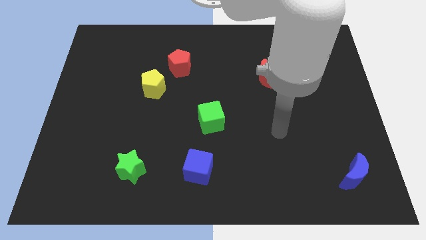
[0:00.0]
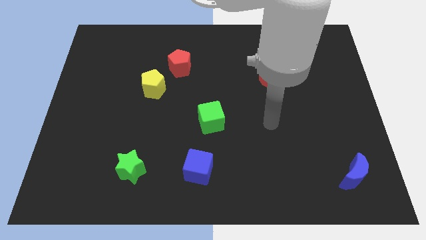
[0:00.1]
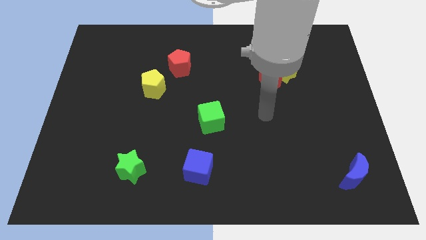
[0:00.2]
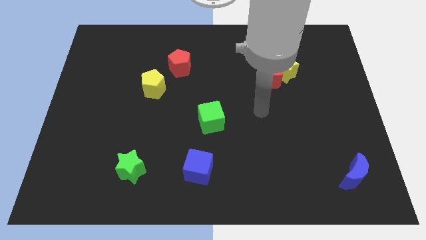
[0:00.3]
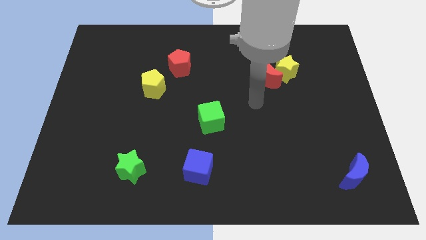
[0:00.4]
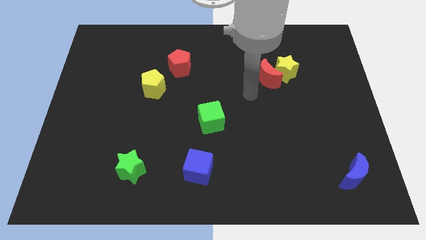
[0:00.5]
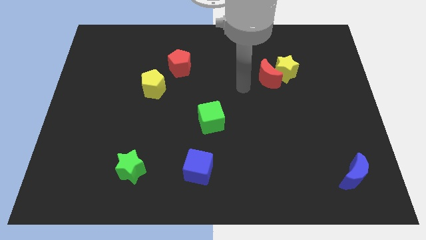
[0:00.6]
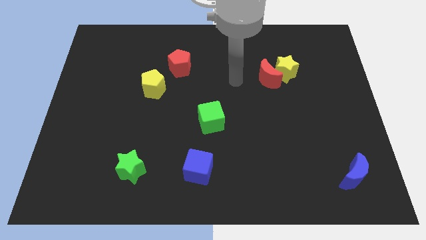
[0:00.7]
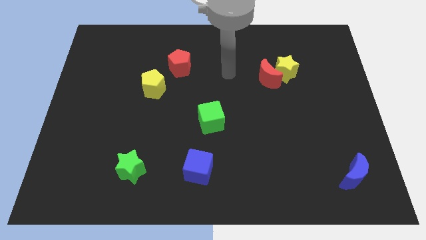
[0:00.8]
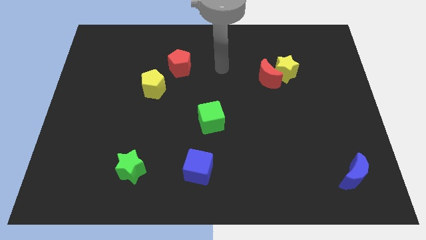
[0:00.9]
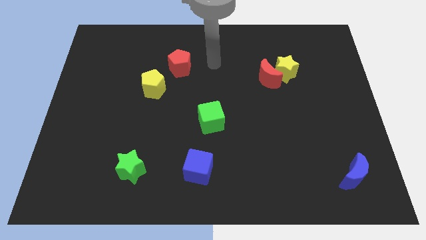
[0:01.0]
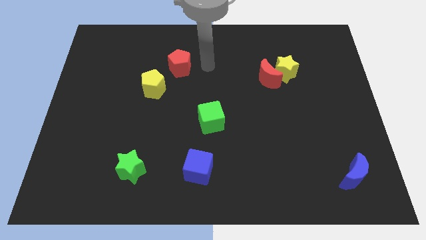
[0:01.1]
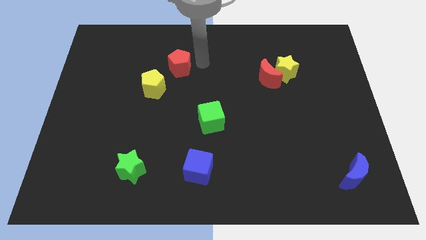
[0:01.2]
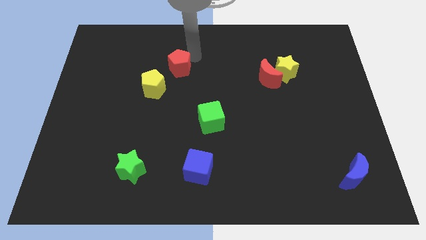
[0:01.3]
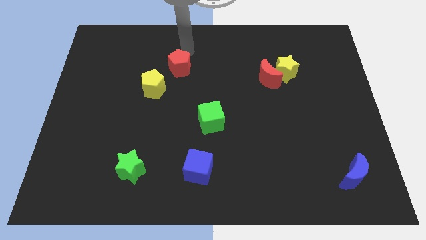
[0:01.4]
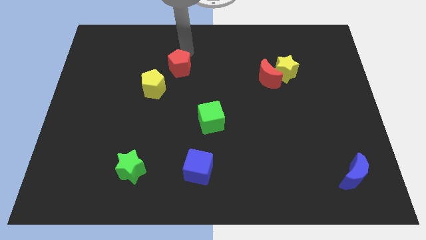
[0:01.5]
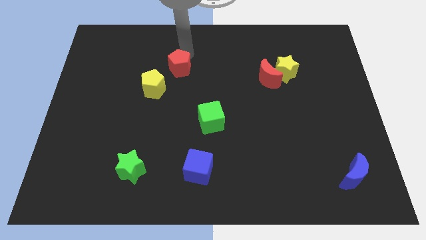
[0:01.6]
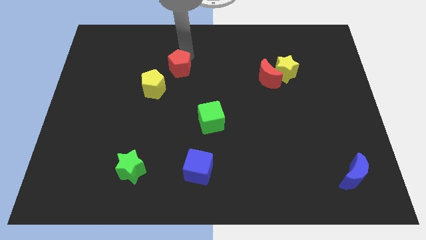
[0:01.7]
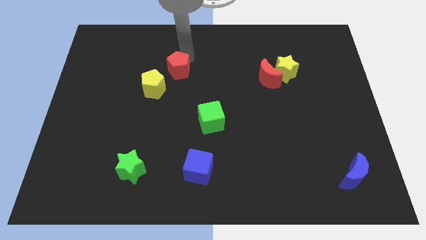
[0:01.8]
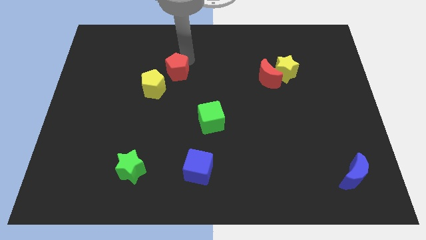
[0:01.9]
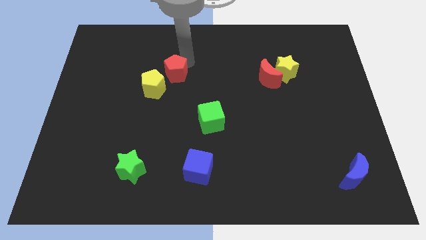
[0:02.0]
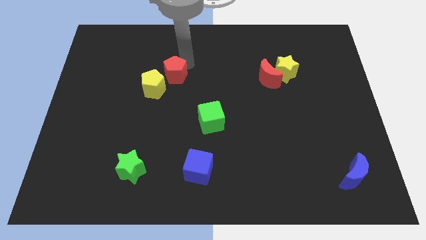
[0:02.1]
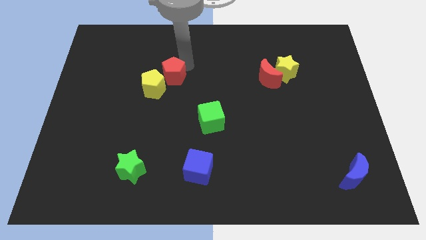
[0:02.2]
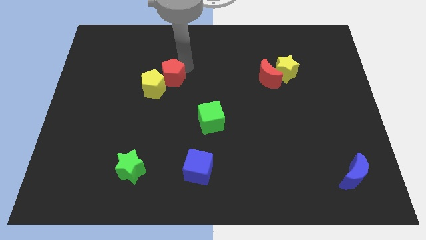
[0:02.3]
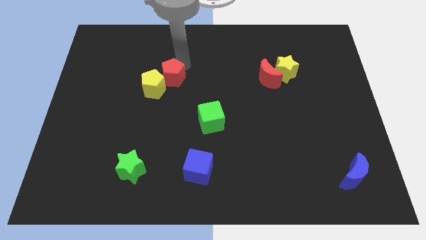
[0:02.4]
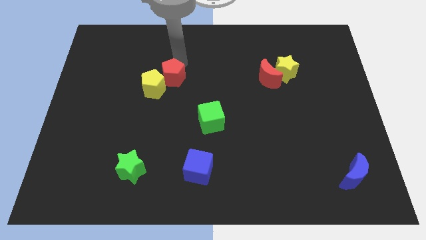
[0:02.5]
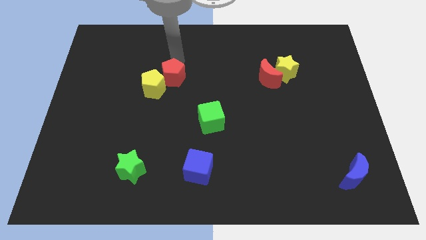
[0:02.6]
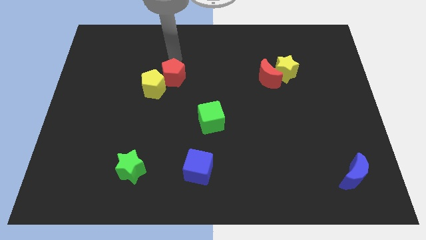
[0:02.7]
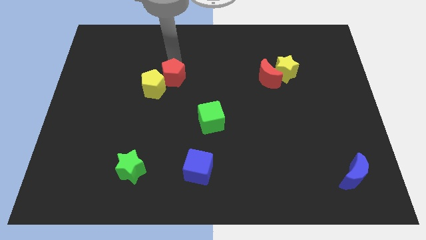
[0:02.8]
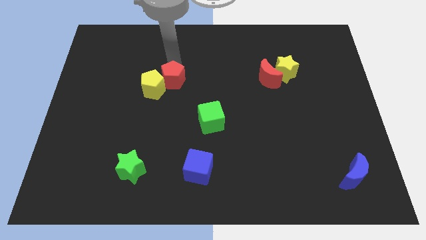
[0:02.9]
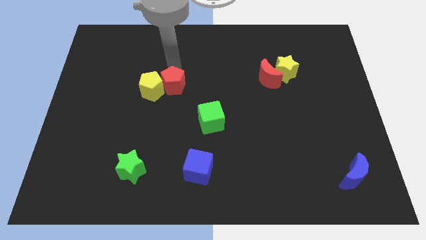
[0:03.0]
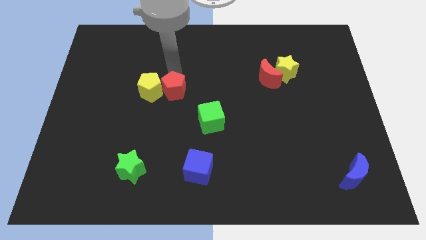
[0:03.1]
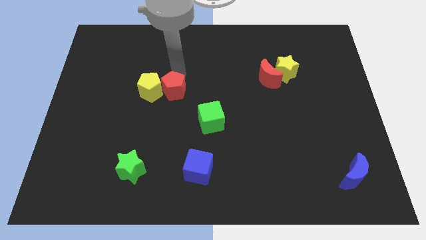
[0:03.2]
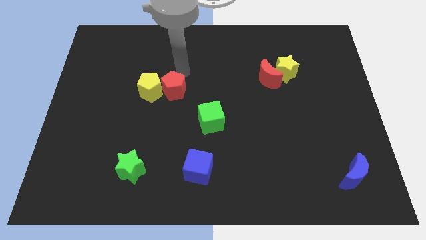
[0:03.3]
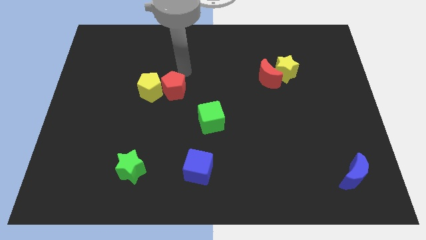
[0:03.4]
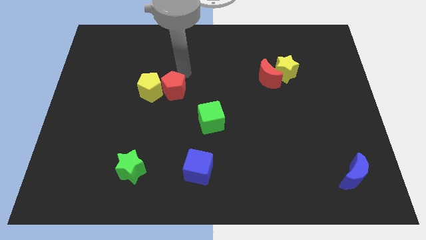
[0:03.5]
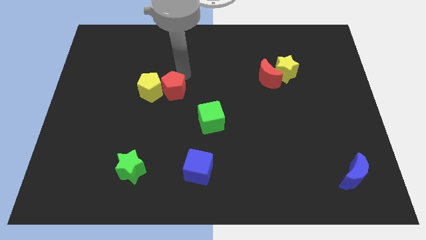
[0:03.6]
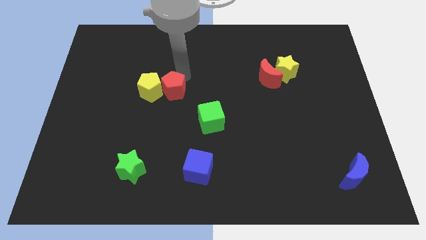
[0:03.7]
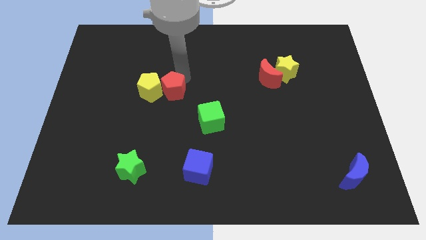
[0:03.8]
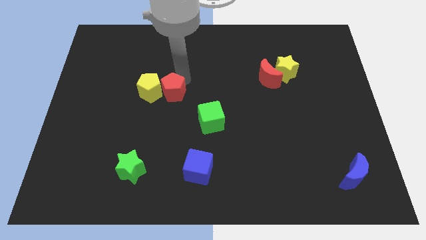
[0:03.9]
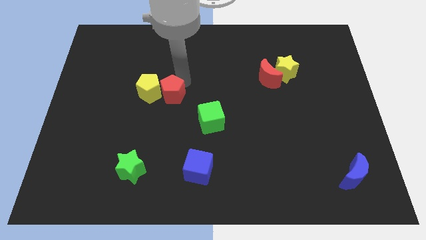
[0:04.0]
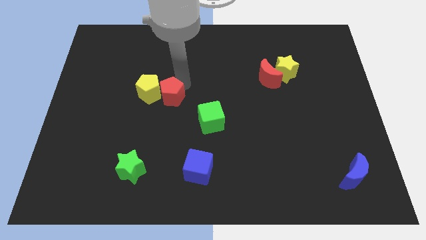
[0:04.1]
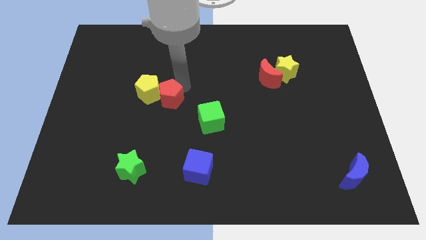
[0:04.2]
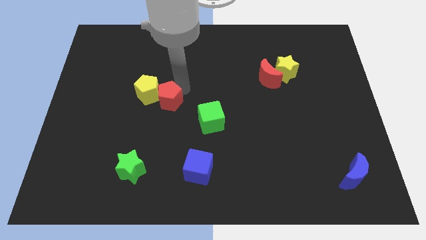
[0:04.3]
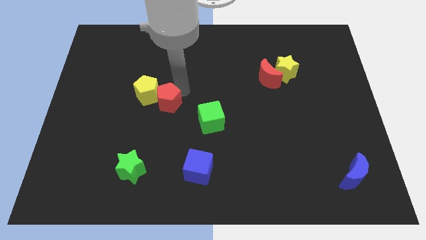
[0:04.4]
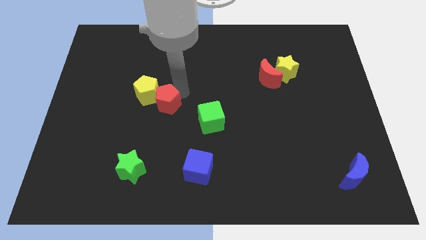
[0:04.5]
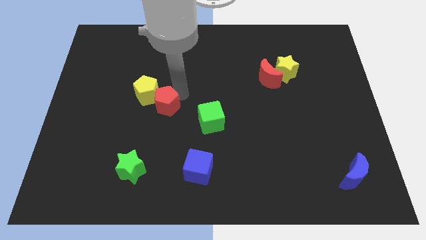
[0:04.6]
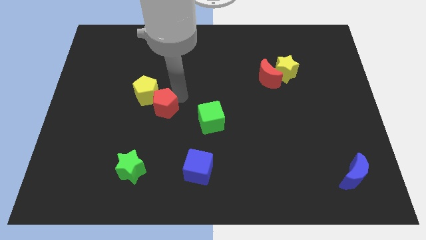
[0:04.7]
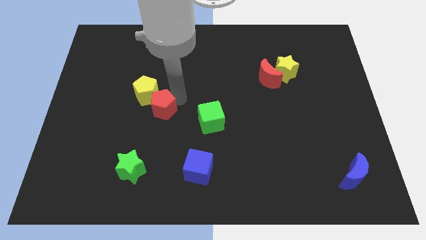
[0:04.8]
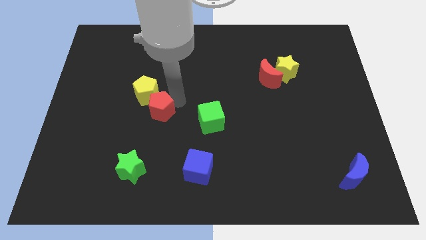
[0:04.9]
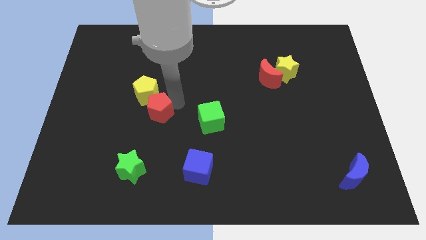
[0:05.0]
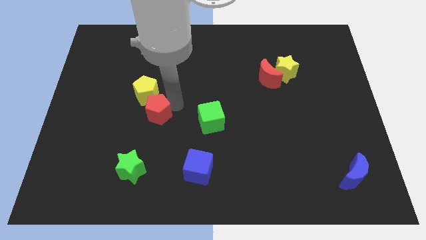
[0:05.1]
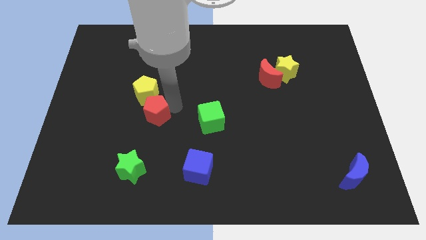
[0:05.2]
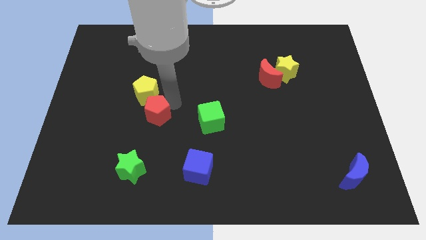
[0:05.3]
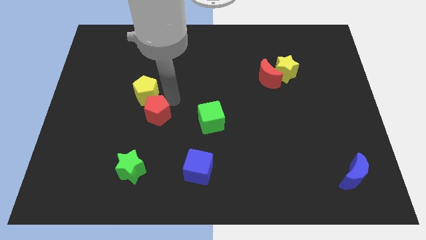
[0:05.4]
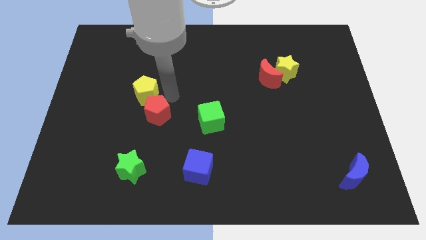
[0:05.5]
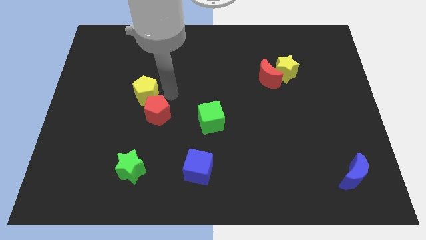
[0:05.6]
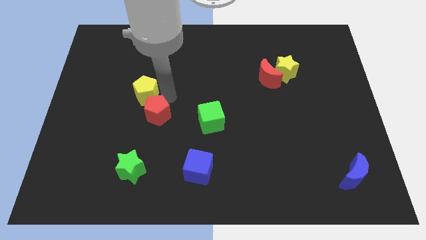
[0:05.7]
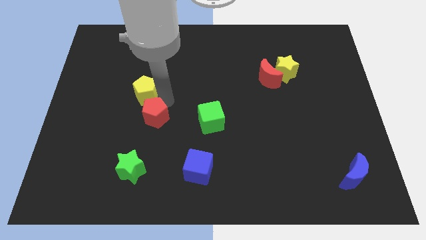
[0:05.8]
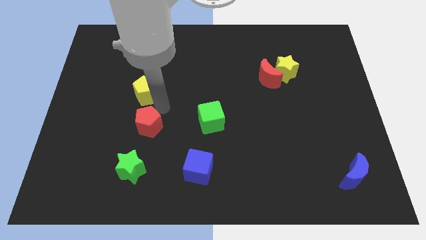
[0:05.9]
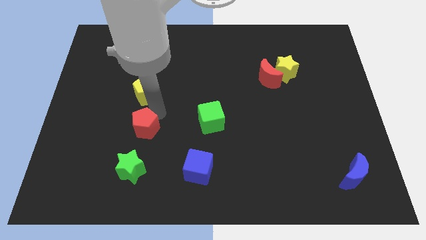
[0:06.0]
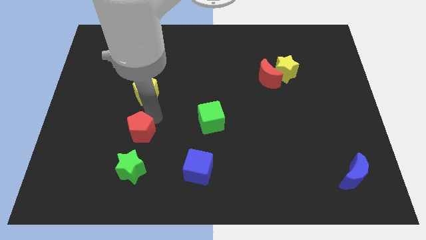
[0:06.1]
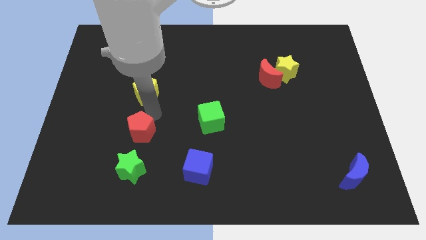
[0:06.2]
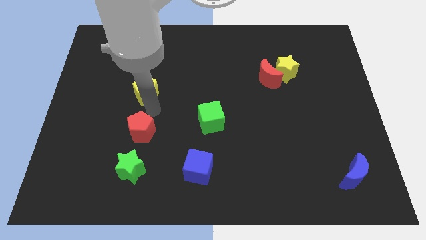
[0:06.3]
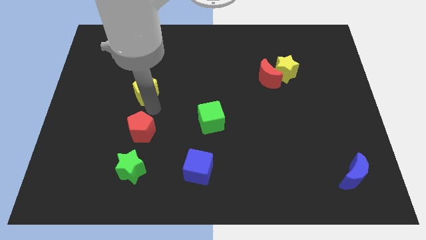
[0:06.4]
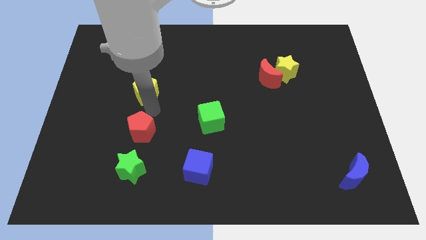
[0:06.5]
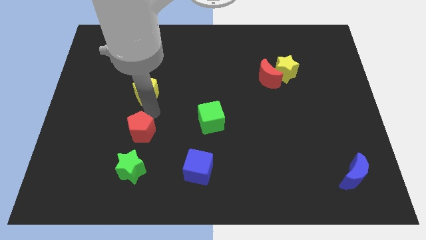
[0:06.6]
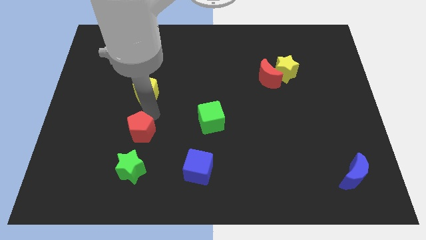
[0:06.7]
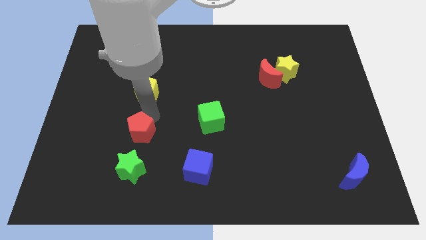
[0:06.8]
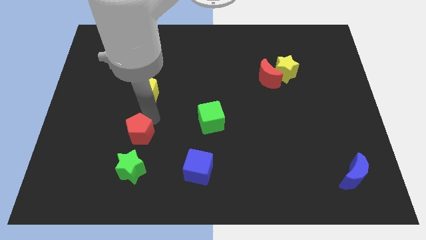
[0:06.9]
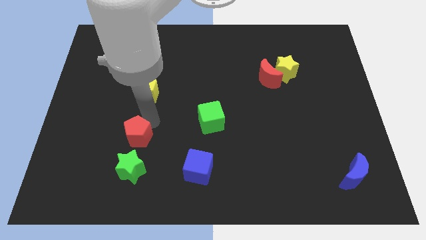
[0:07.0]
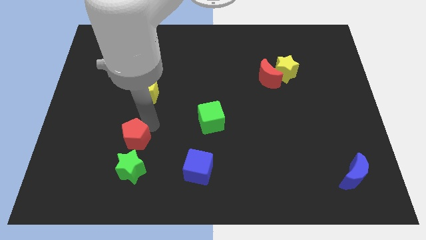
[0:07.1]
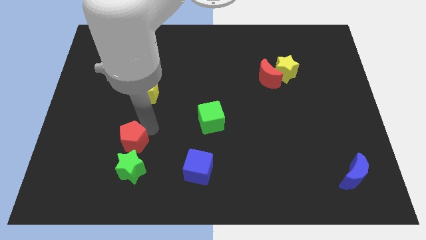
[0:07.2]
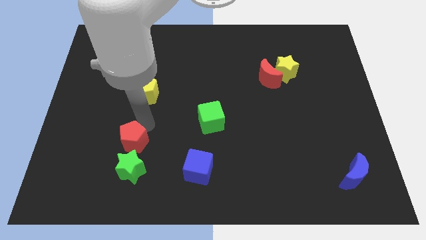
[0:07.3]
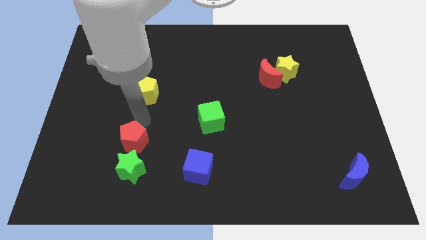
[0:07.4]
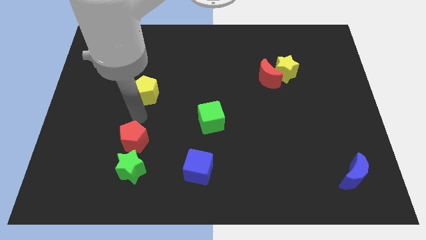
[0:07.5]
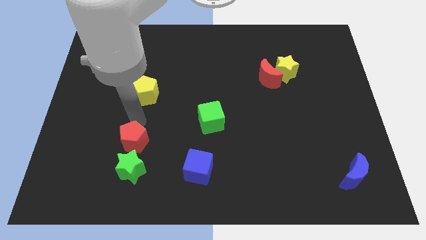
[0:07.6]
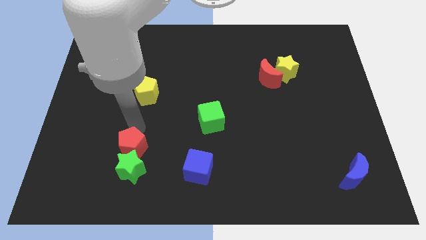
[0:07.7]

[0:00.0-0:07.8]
push the red pentagon next to the green star
